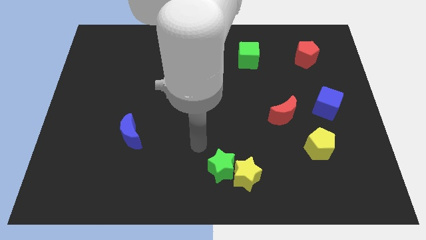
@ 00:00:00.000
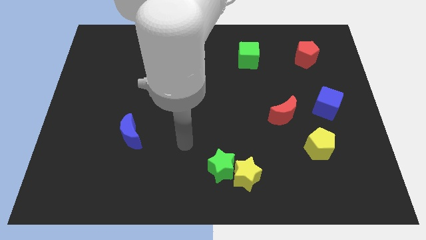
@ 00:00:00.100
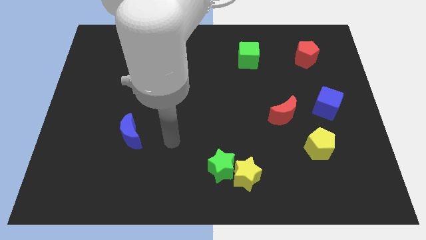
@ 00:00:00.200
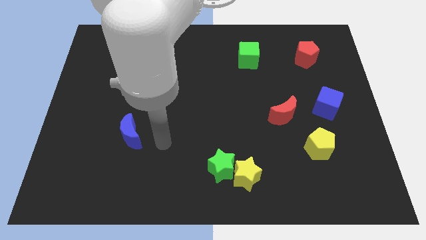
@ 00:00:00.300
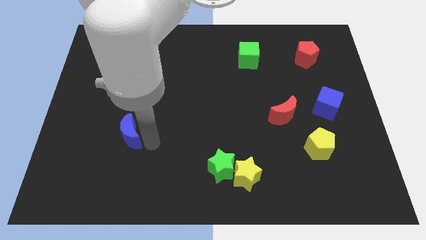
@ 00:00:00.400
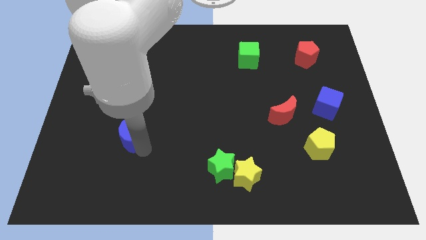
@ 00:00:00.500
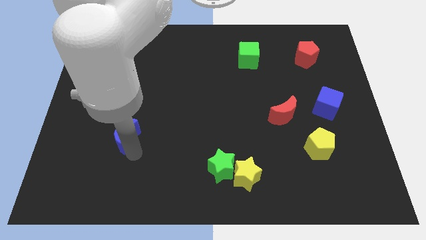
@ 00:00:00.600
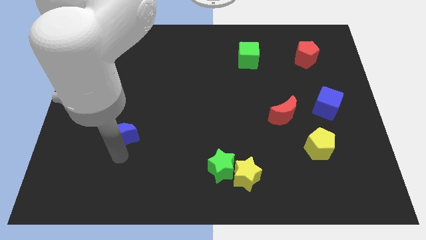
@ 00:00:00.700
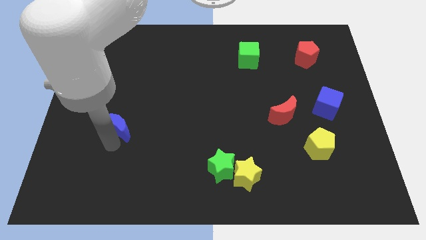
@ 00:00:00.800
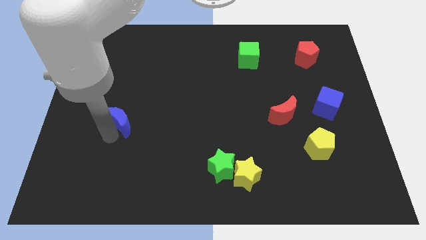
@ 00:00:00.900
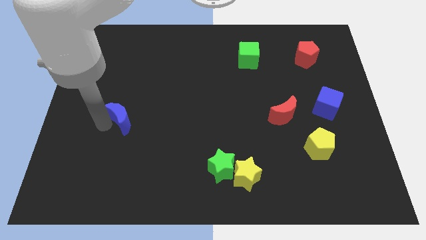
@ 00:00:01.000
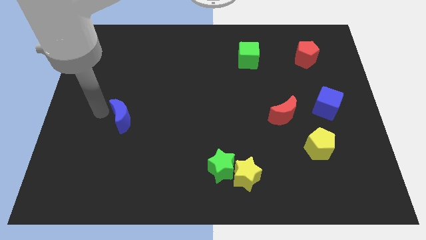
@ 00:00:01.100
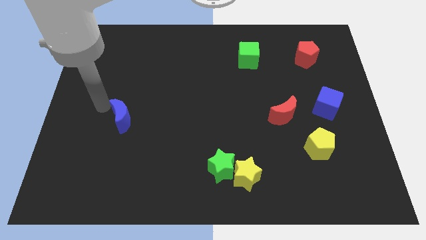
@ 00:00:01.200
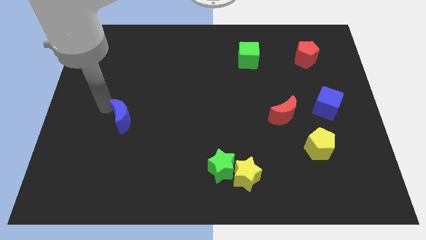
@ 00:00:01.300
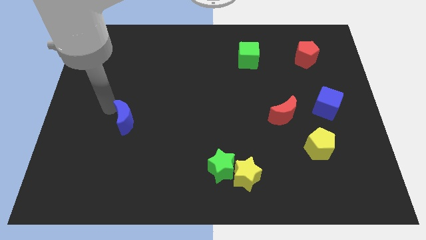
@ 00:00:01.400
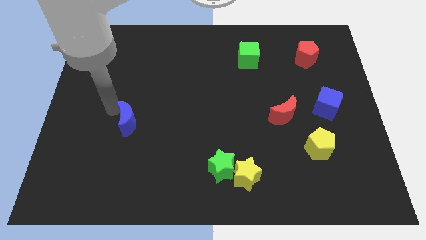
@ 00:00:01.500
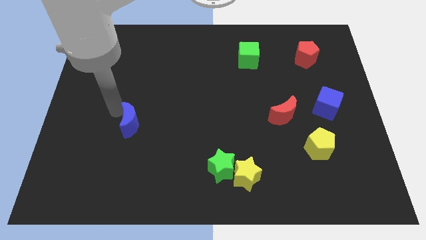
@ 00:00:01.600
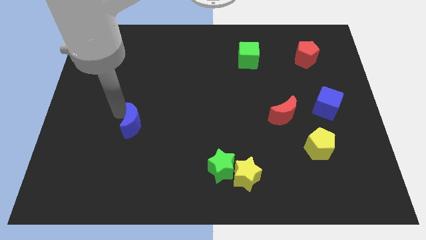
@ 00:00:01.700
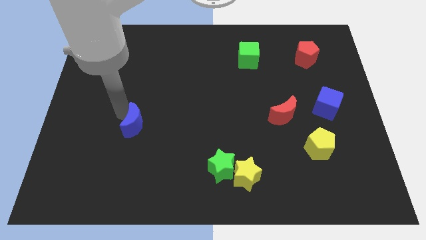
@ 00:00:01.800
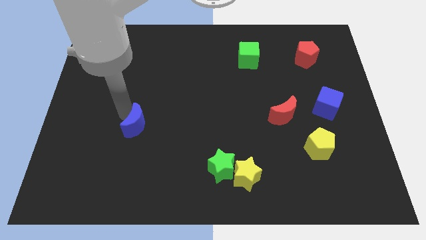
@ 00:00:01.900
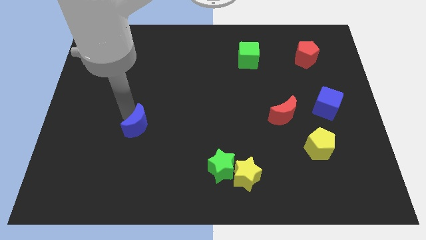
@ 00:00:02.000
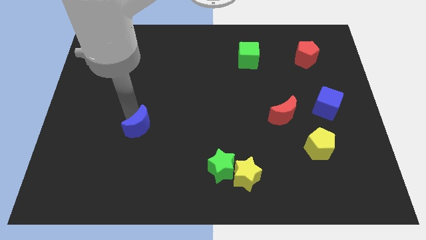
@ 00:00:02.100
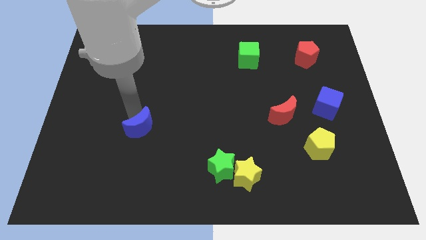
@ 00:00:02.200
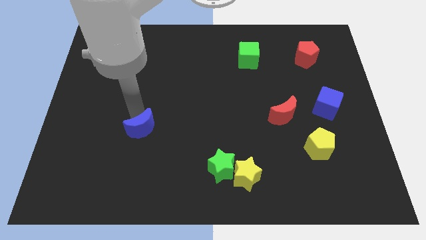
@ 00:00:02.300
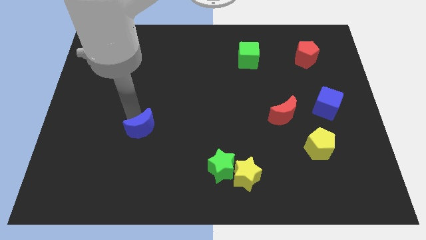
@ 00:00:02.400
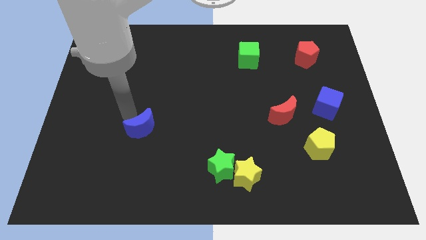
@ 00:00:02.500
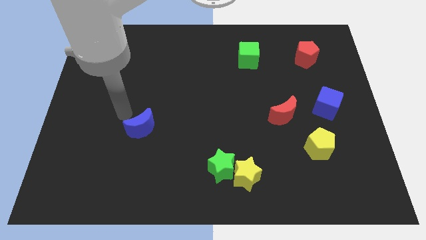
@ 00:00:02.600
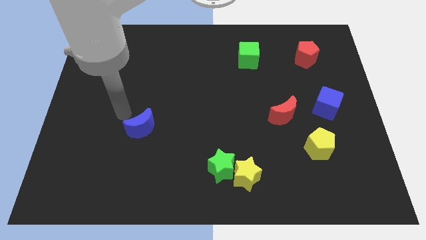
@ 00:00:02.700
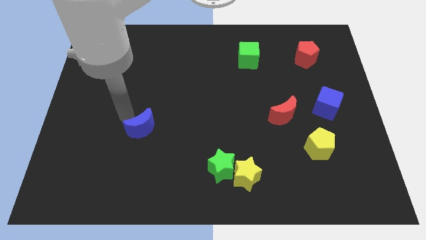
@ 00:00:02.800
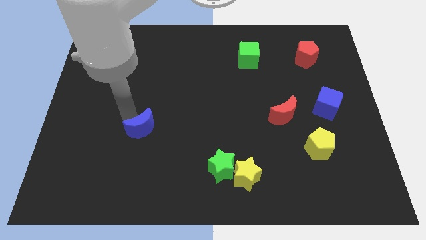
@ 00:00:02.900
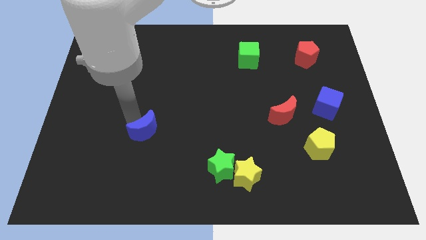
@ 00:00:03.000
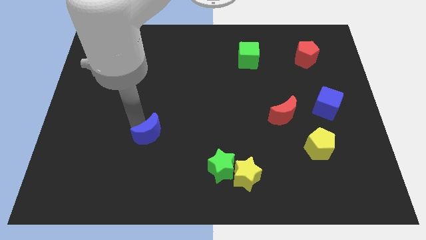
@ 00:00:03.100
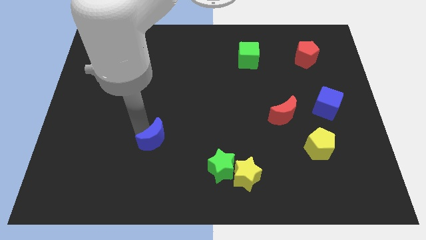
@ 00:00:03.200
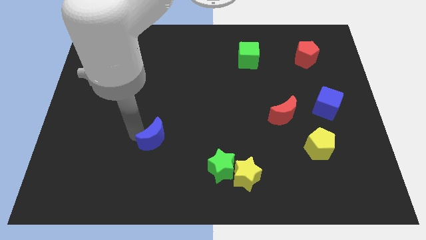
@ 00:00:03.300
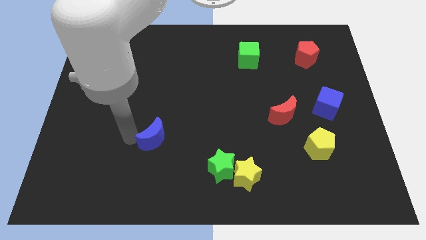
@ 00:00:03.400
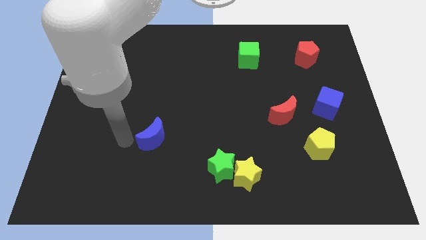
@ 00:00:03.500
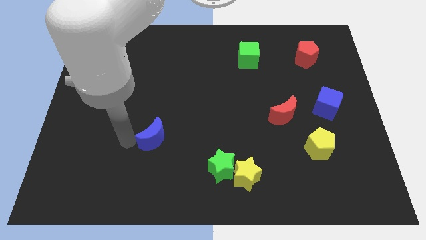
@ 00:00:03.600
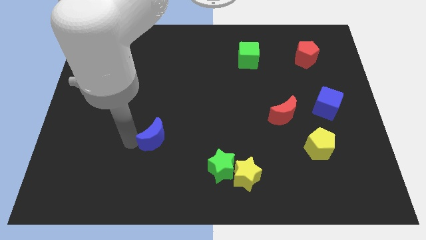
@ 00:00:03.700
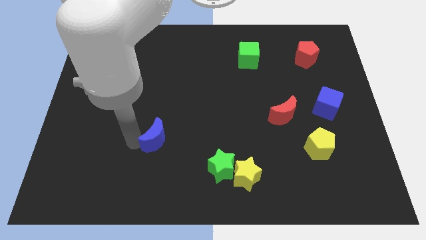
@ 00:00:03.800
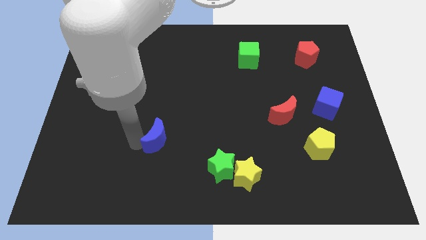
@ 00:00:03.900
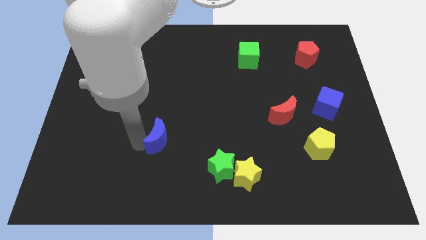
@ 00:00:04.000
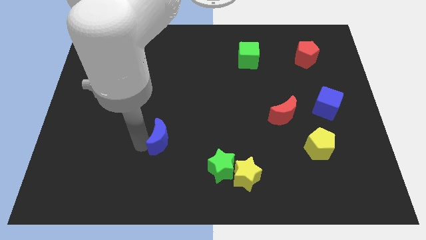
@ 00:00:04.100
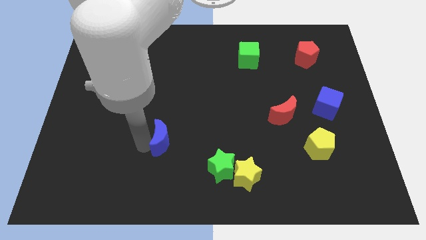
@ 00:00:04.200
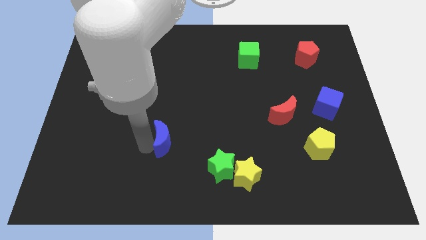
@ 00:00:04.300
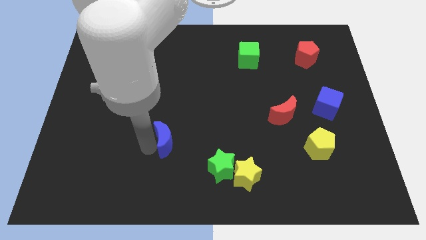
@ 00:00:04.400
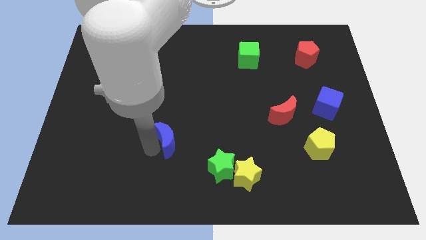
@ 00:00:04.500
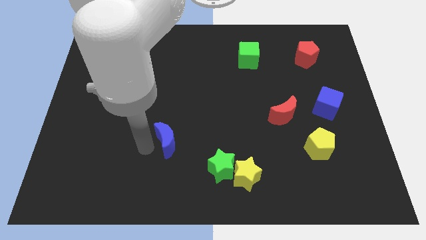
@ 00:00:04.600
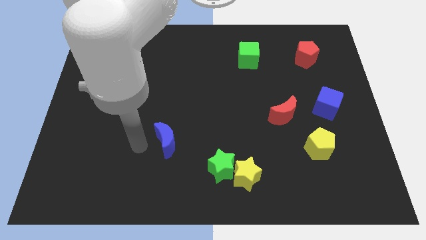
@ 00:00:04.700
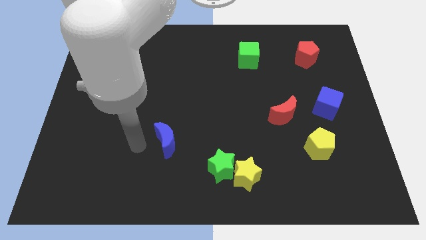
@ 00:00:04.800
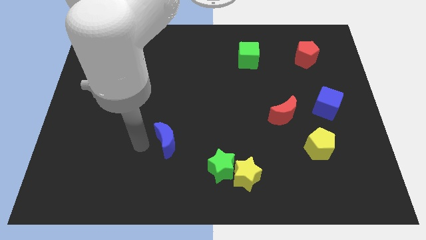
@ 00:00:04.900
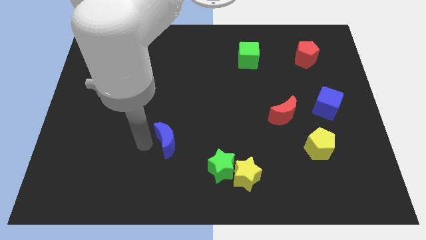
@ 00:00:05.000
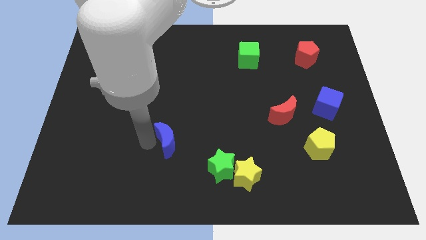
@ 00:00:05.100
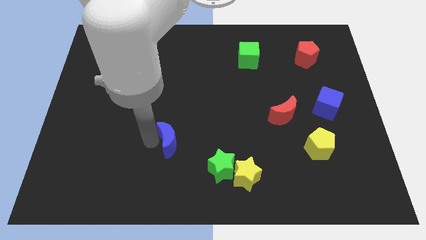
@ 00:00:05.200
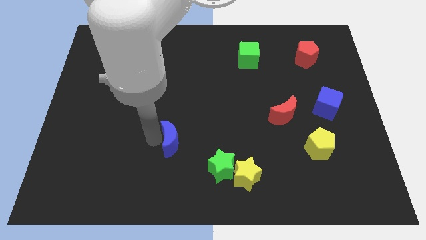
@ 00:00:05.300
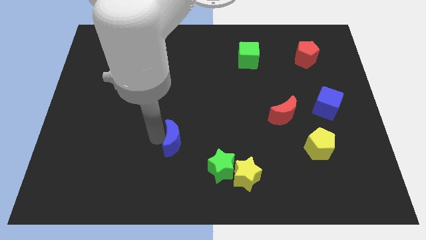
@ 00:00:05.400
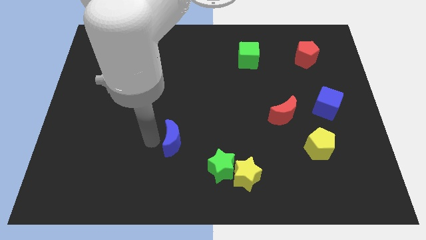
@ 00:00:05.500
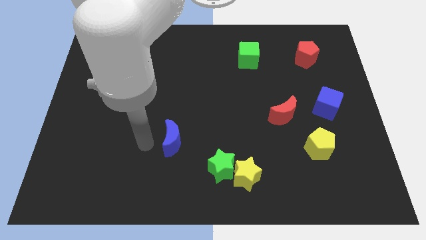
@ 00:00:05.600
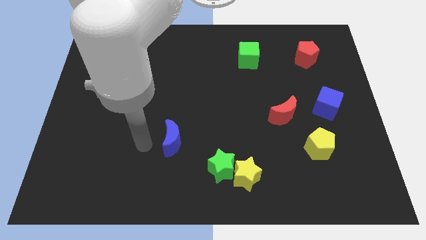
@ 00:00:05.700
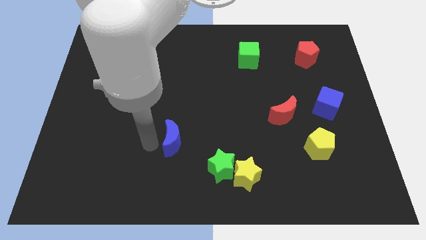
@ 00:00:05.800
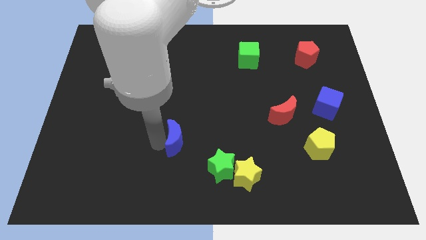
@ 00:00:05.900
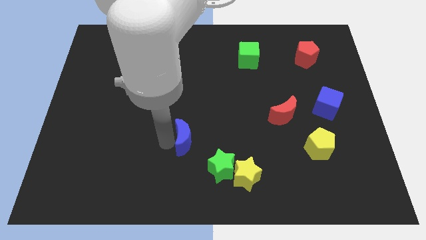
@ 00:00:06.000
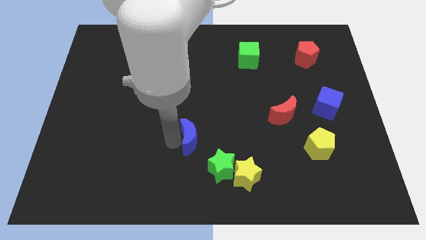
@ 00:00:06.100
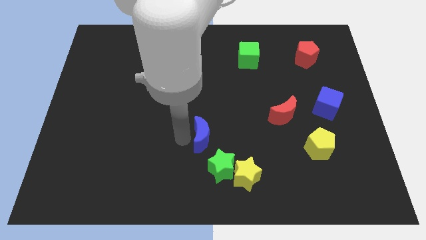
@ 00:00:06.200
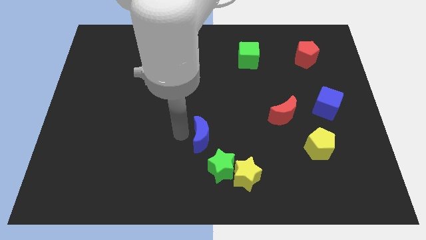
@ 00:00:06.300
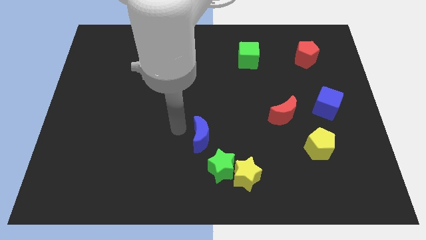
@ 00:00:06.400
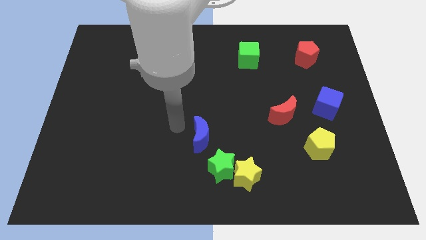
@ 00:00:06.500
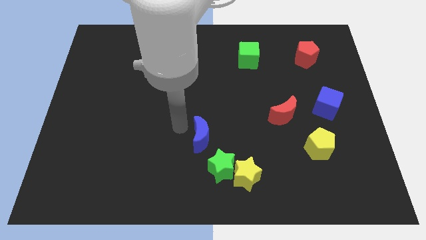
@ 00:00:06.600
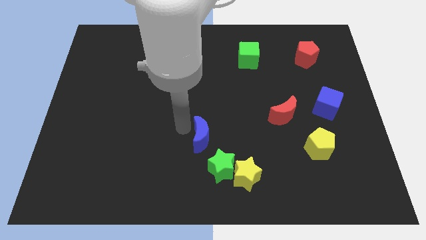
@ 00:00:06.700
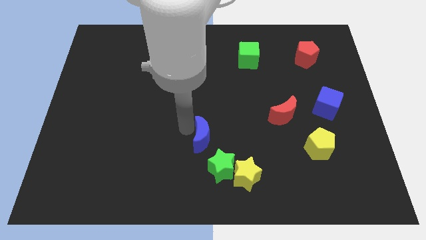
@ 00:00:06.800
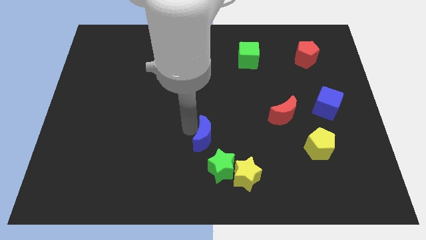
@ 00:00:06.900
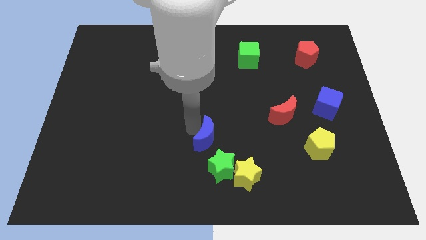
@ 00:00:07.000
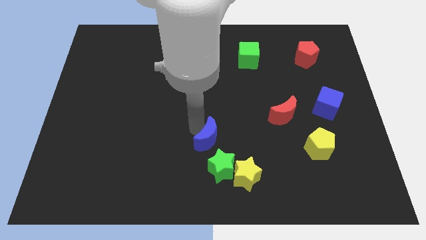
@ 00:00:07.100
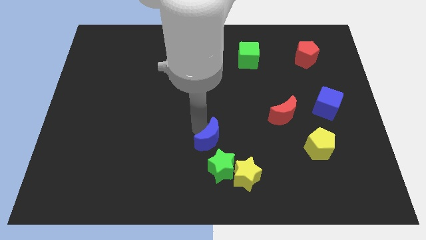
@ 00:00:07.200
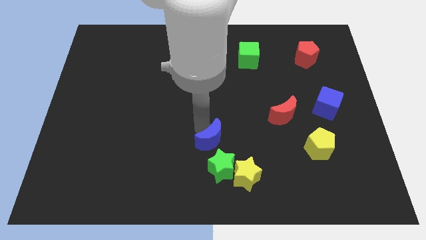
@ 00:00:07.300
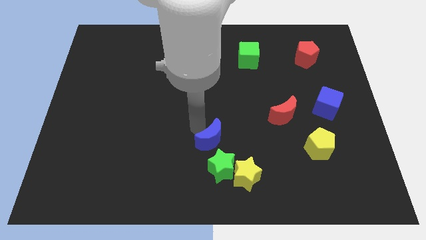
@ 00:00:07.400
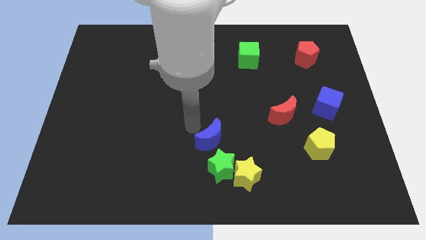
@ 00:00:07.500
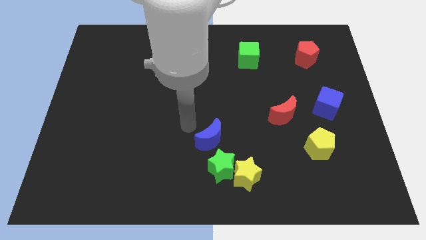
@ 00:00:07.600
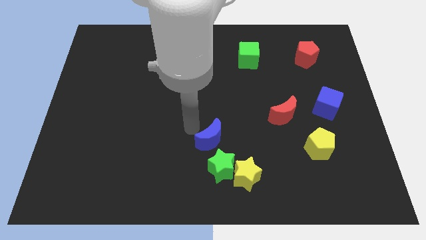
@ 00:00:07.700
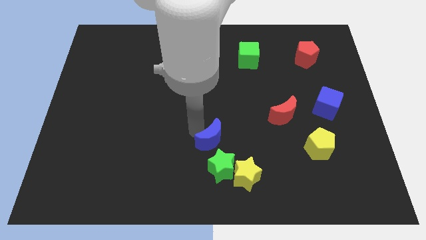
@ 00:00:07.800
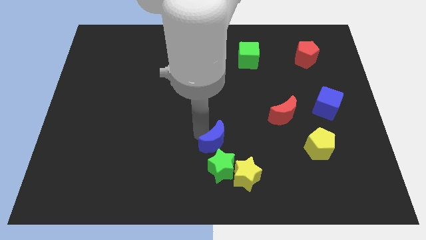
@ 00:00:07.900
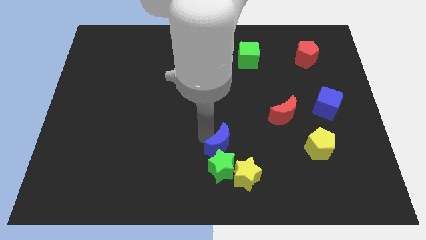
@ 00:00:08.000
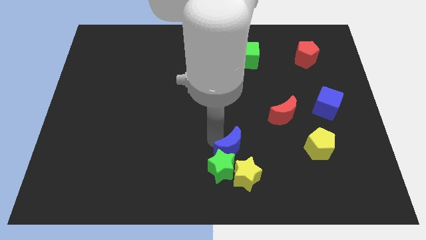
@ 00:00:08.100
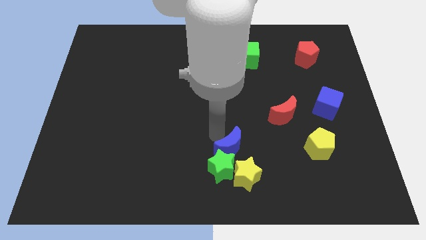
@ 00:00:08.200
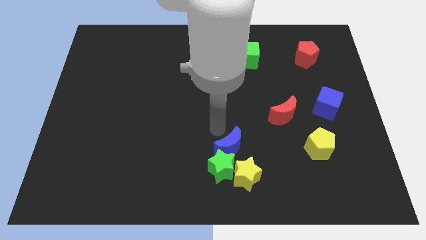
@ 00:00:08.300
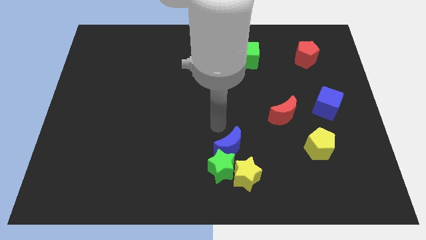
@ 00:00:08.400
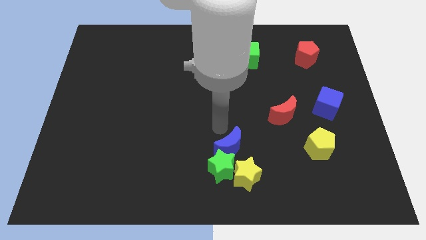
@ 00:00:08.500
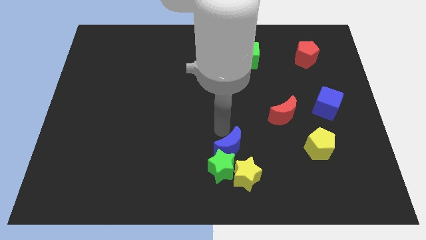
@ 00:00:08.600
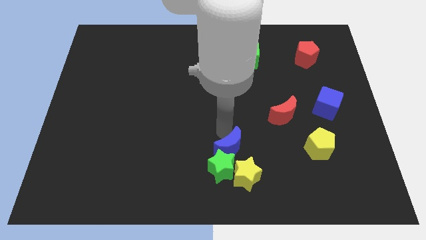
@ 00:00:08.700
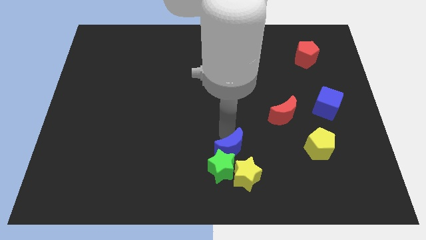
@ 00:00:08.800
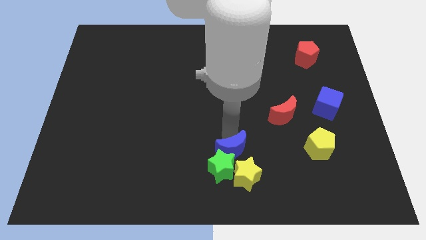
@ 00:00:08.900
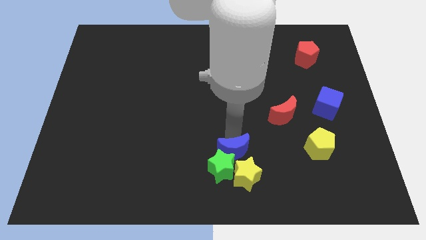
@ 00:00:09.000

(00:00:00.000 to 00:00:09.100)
put the blue moon towards the yellow star
